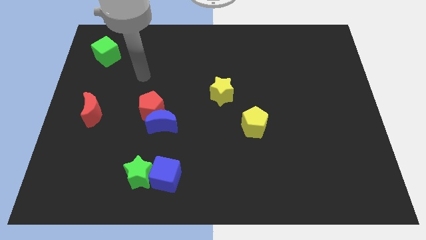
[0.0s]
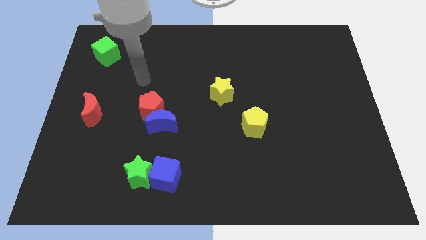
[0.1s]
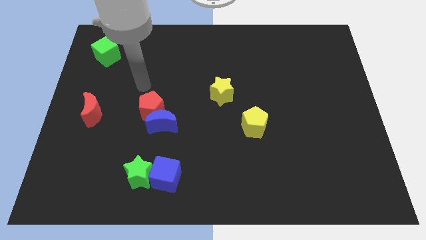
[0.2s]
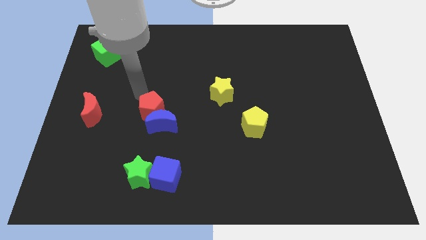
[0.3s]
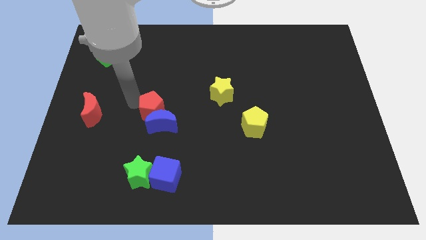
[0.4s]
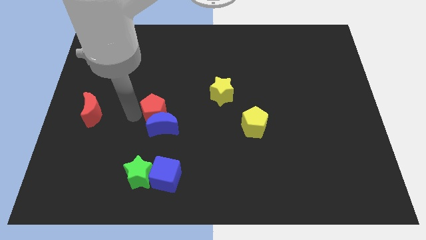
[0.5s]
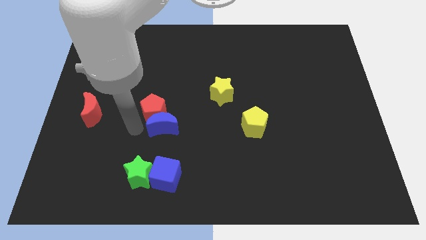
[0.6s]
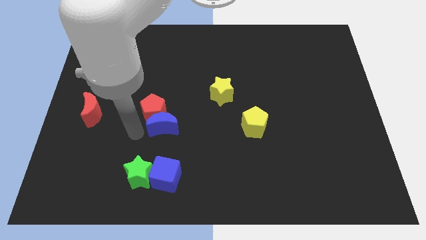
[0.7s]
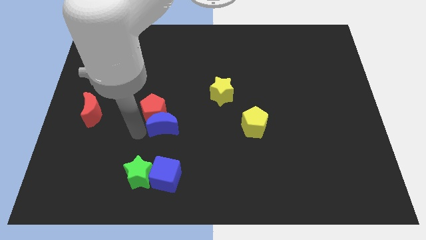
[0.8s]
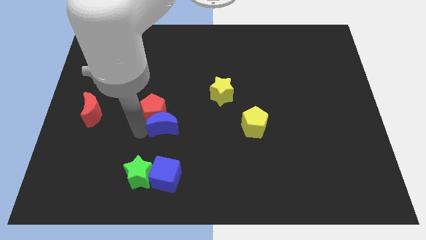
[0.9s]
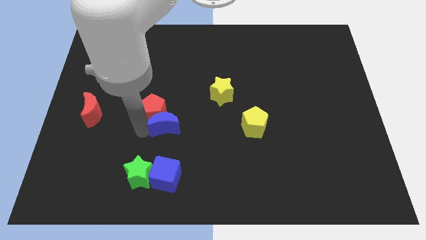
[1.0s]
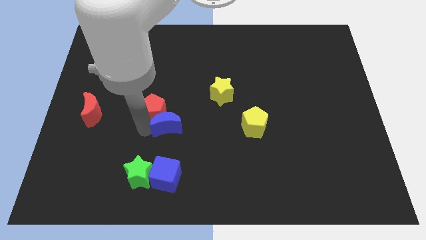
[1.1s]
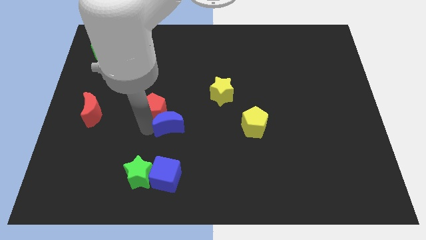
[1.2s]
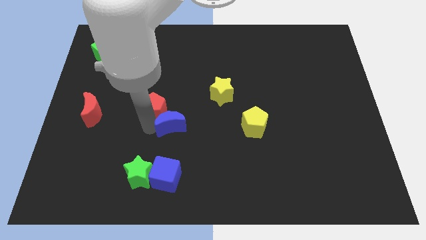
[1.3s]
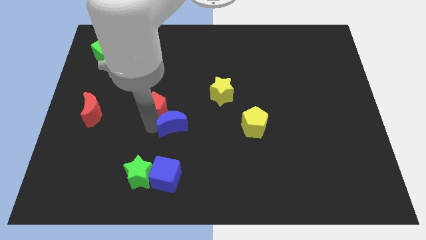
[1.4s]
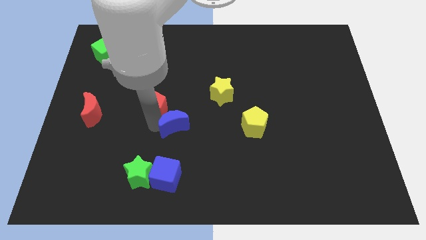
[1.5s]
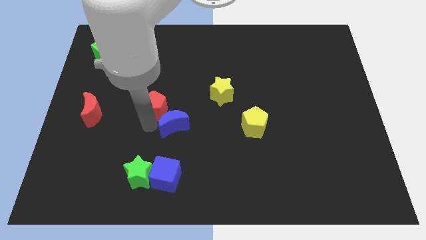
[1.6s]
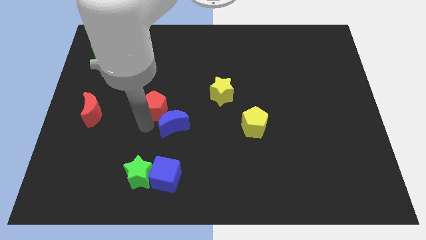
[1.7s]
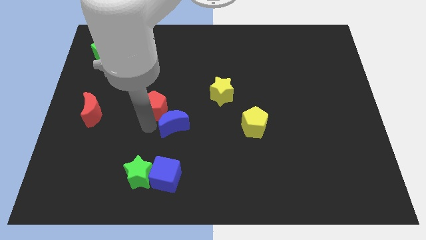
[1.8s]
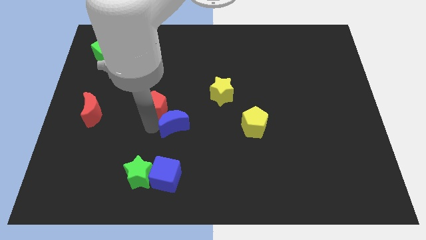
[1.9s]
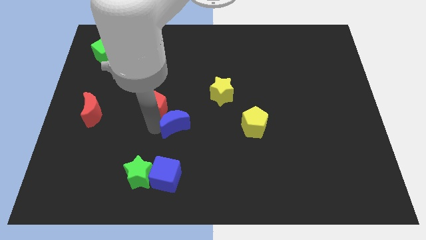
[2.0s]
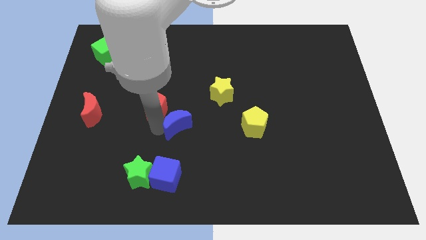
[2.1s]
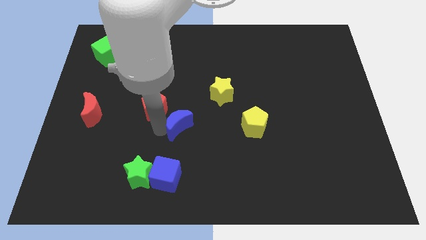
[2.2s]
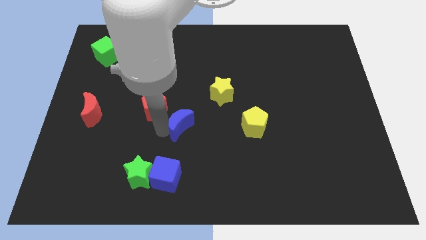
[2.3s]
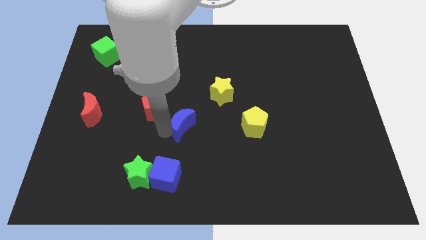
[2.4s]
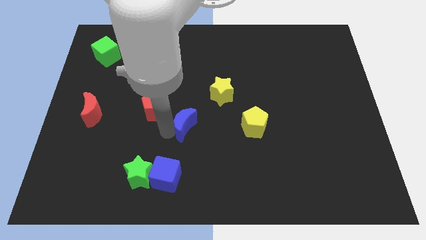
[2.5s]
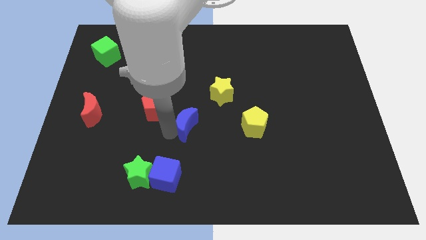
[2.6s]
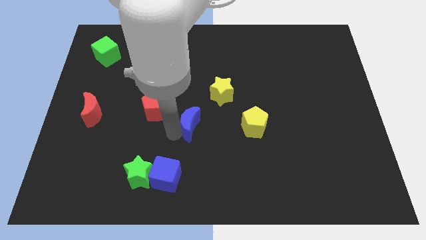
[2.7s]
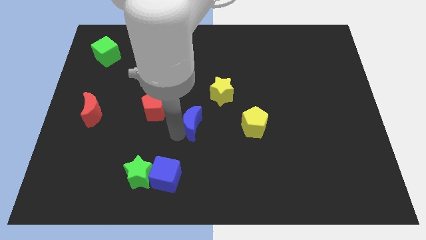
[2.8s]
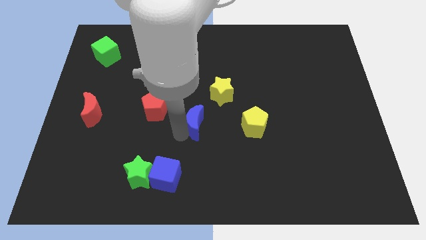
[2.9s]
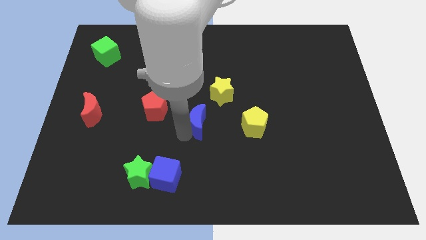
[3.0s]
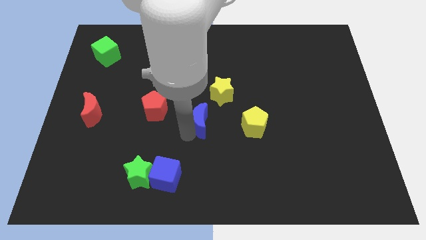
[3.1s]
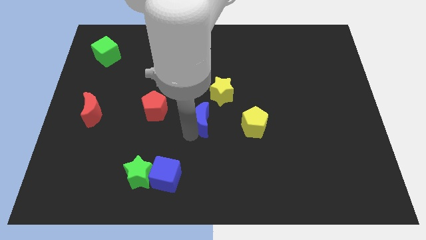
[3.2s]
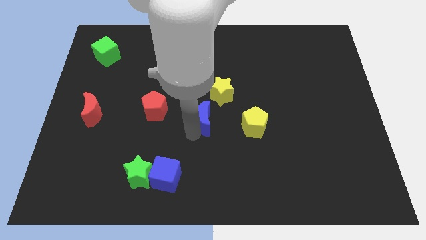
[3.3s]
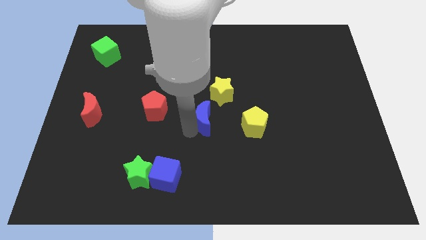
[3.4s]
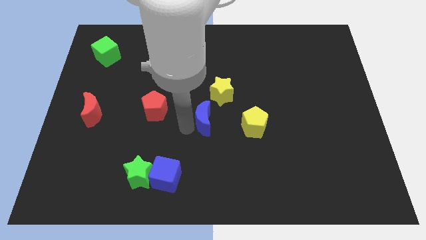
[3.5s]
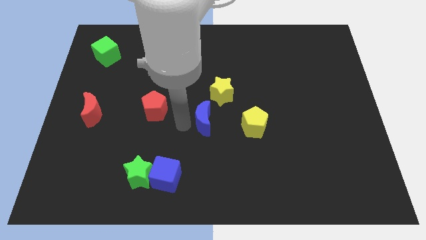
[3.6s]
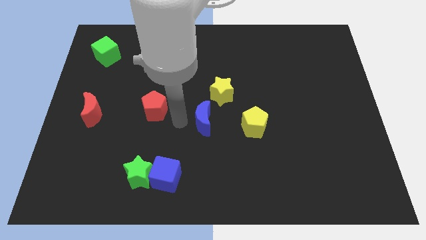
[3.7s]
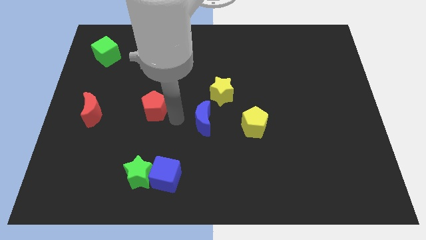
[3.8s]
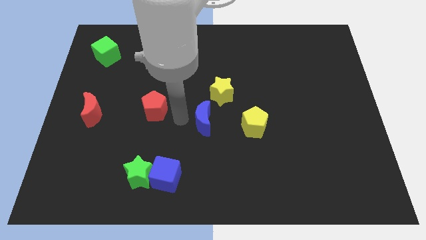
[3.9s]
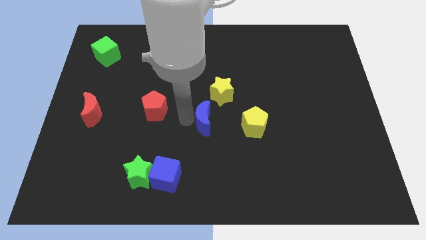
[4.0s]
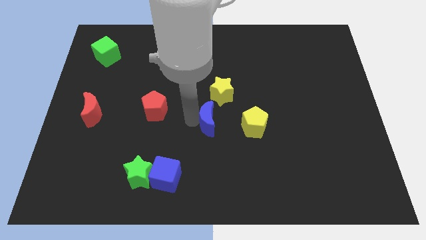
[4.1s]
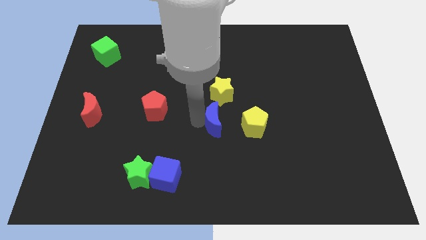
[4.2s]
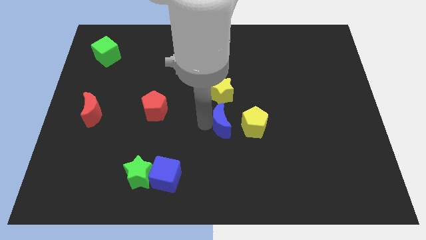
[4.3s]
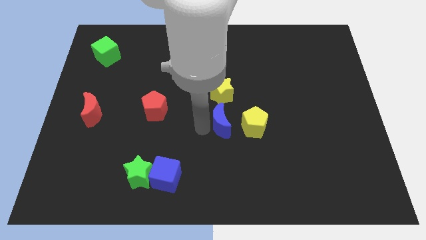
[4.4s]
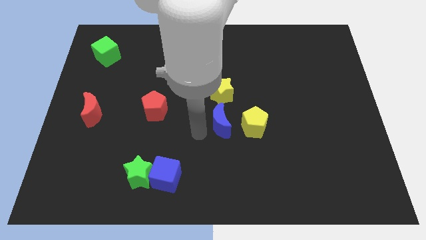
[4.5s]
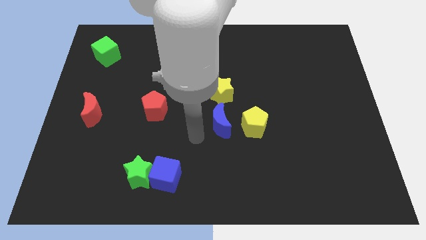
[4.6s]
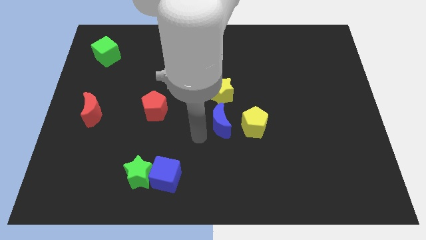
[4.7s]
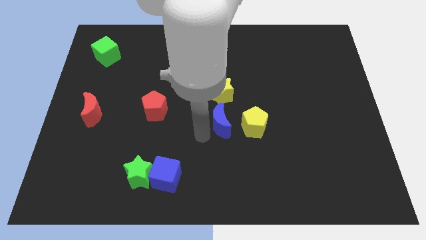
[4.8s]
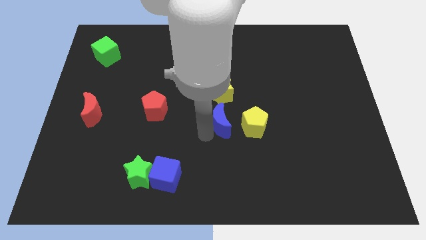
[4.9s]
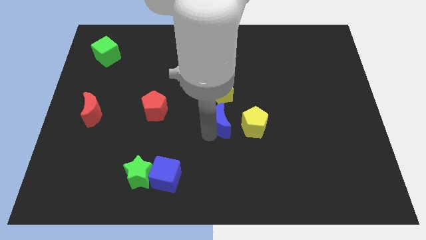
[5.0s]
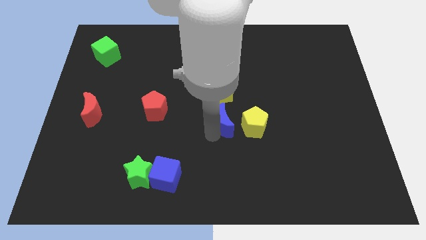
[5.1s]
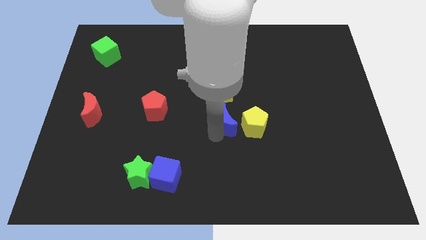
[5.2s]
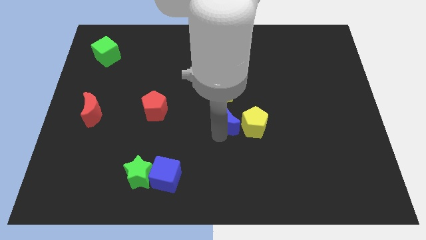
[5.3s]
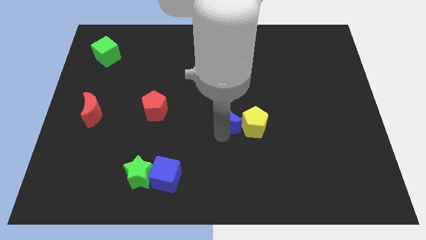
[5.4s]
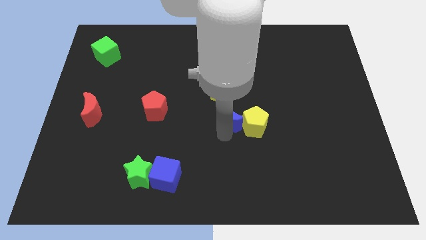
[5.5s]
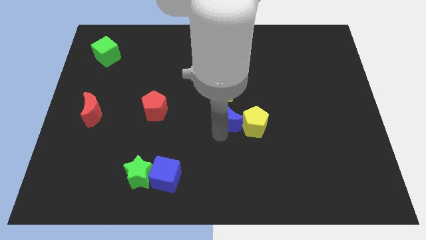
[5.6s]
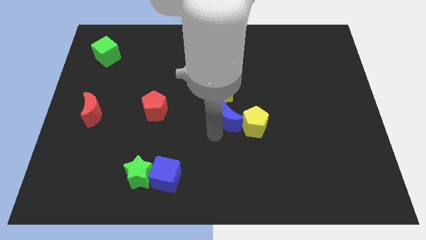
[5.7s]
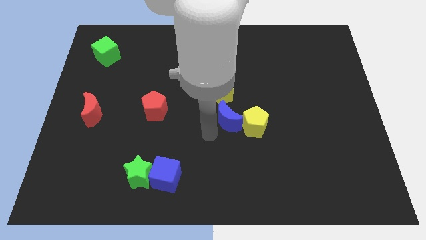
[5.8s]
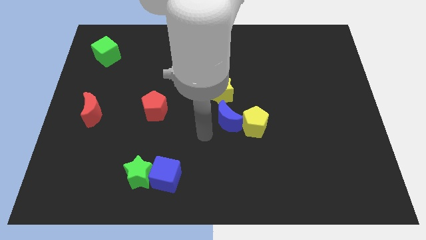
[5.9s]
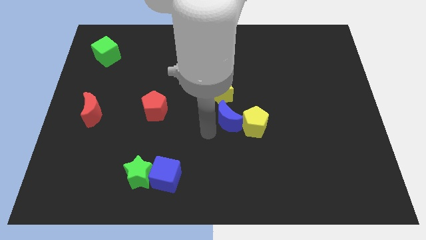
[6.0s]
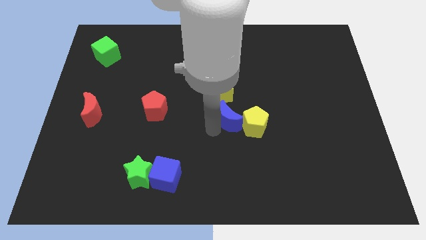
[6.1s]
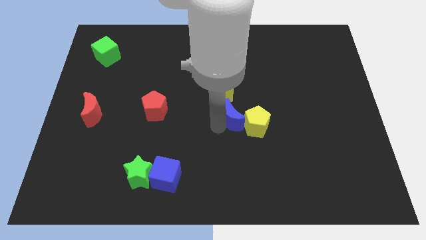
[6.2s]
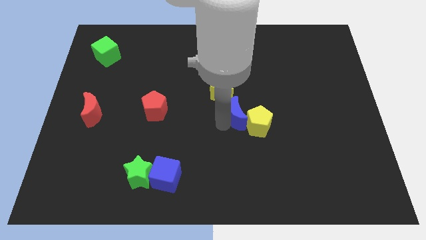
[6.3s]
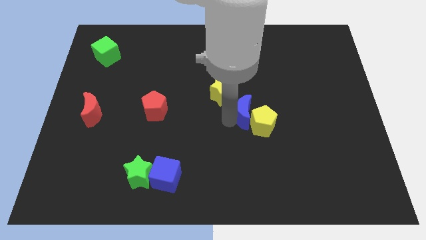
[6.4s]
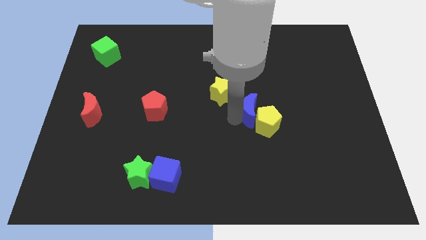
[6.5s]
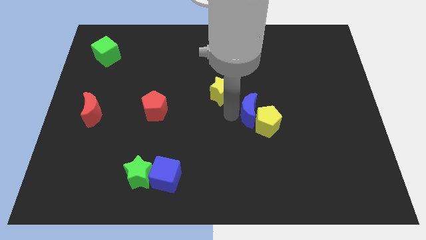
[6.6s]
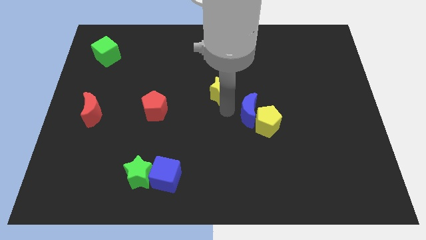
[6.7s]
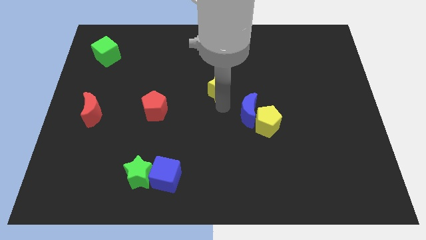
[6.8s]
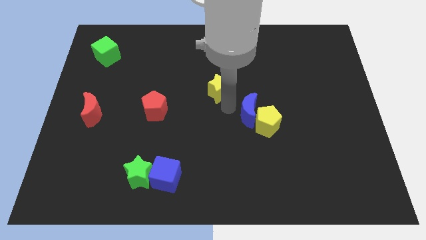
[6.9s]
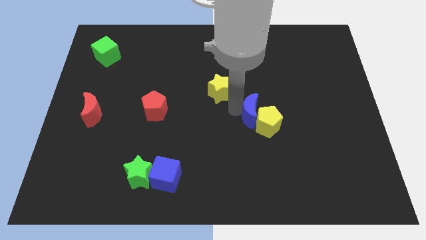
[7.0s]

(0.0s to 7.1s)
move the blue moon right

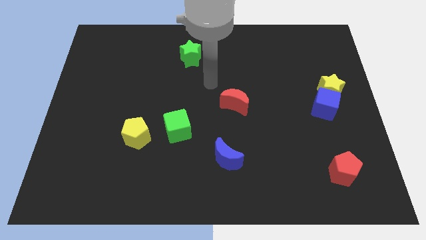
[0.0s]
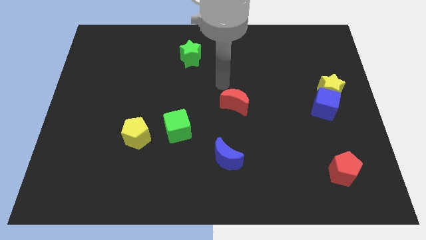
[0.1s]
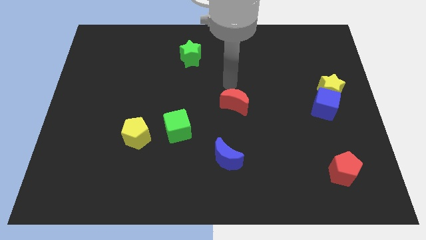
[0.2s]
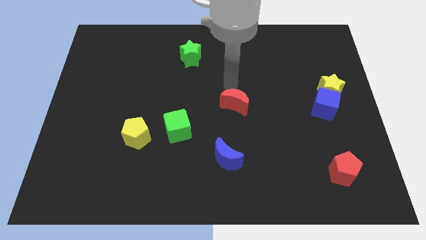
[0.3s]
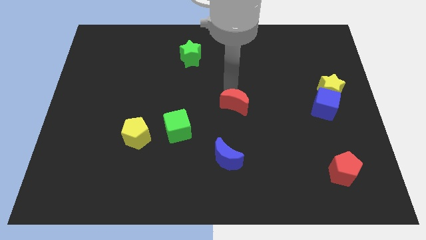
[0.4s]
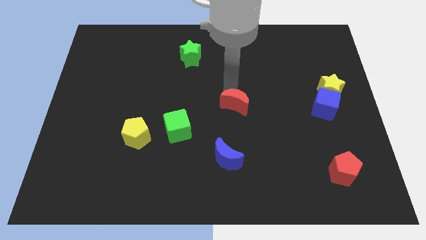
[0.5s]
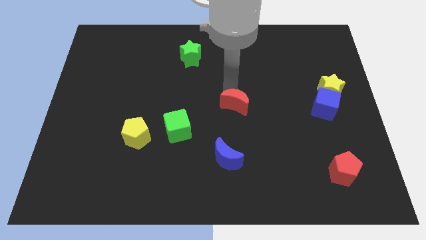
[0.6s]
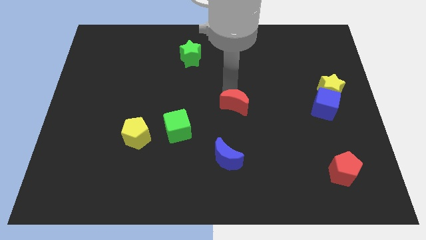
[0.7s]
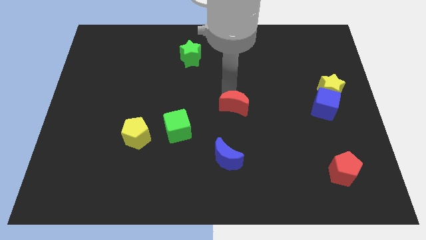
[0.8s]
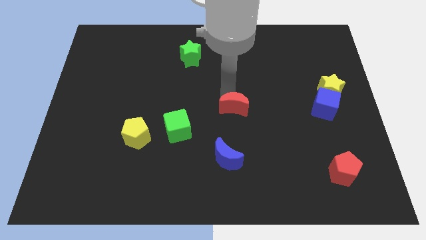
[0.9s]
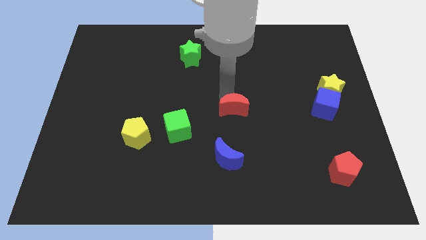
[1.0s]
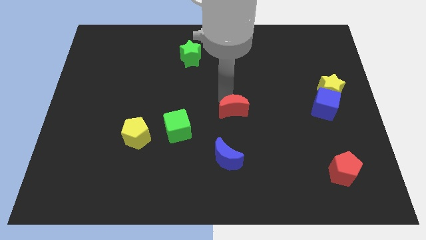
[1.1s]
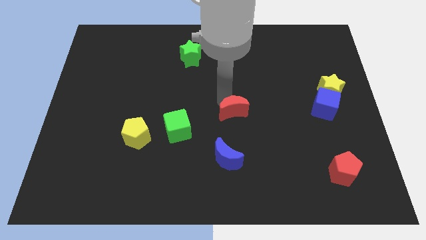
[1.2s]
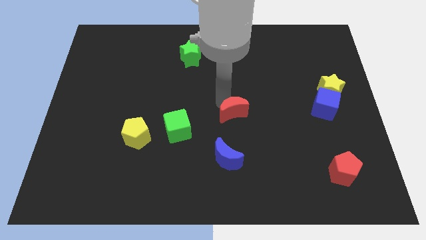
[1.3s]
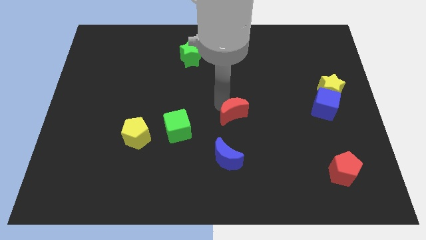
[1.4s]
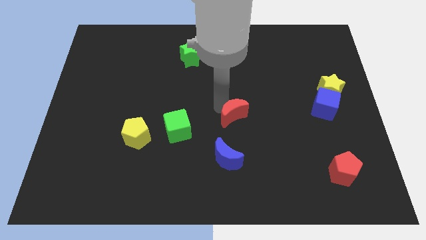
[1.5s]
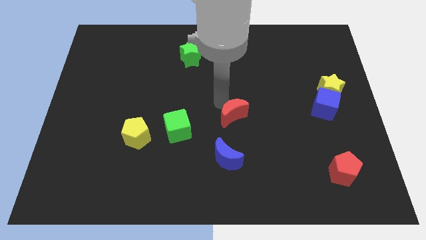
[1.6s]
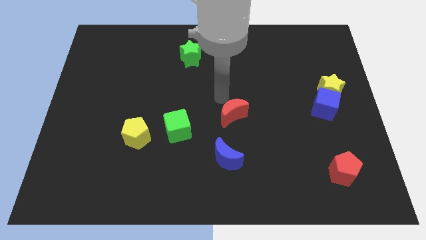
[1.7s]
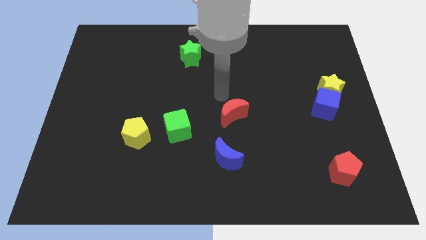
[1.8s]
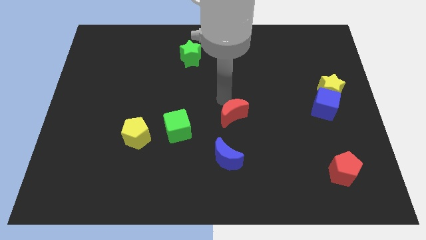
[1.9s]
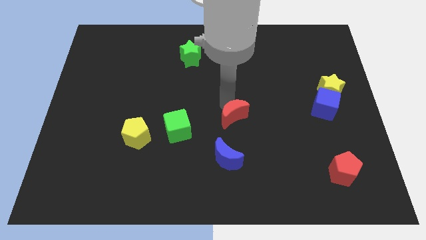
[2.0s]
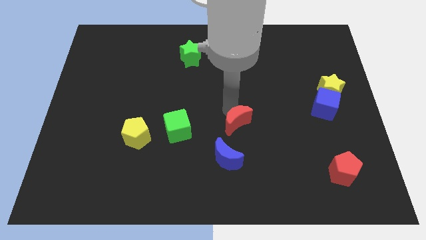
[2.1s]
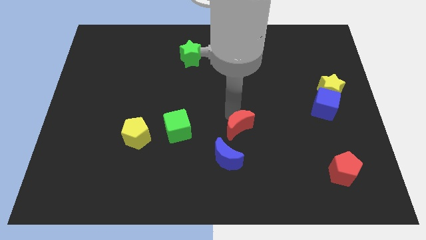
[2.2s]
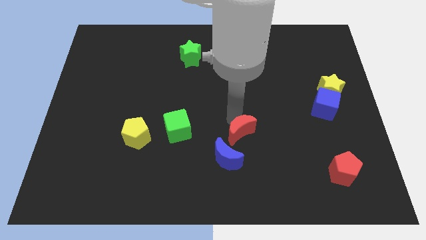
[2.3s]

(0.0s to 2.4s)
move the red moon down a bit
